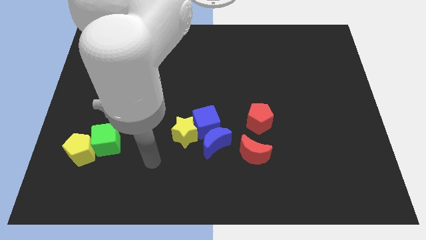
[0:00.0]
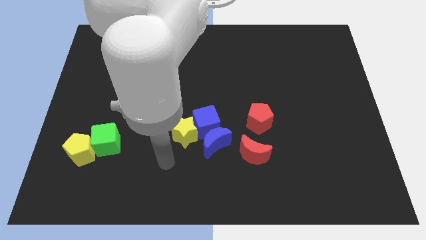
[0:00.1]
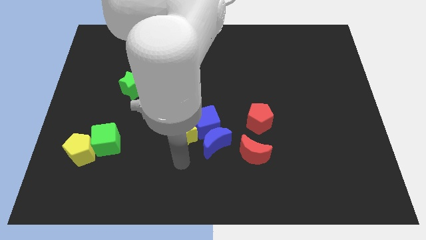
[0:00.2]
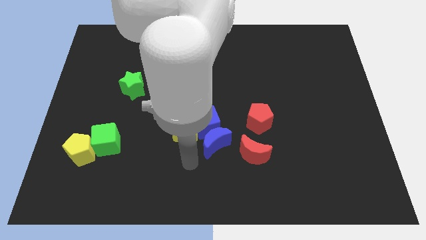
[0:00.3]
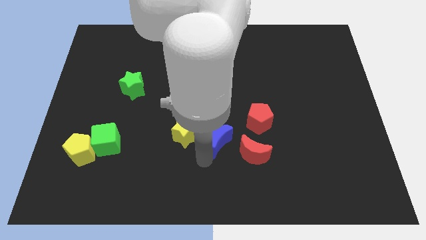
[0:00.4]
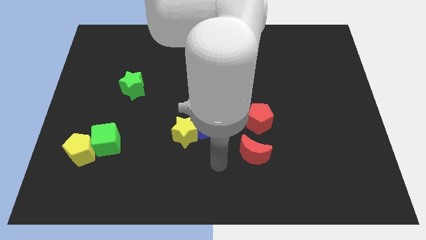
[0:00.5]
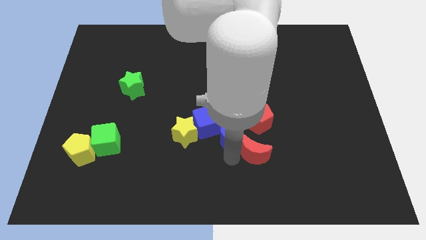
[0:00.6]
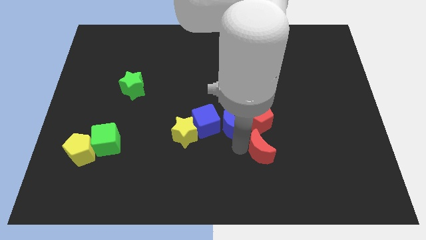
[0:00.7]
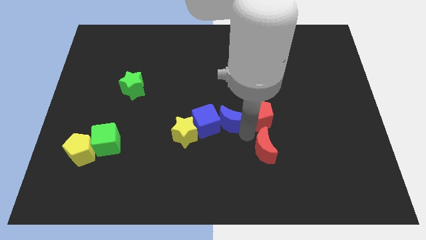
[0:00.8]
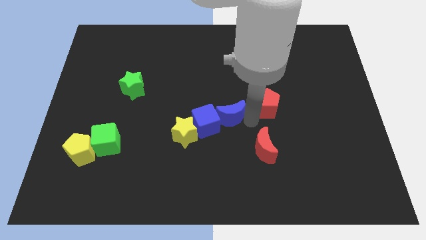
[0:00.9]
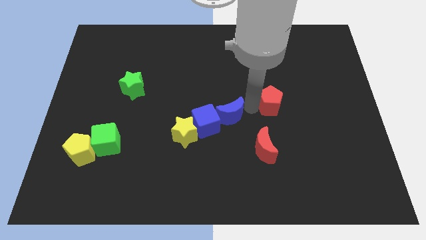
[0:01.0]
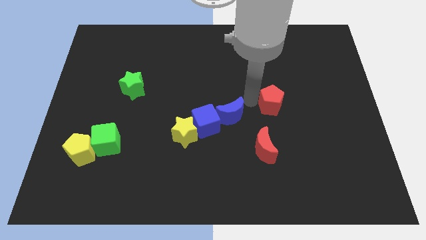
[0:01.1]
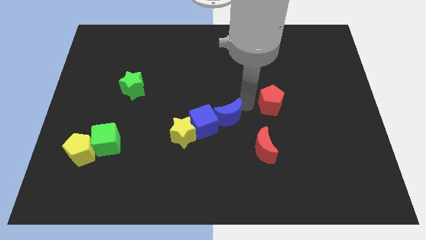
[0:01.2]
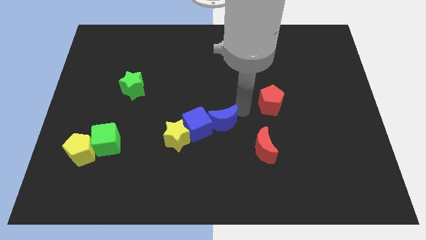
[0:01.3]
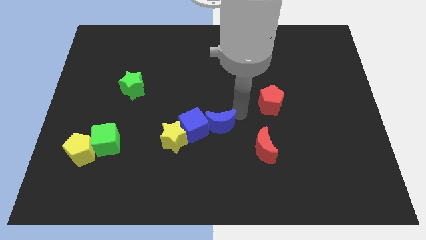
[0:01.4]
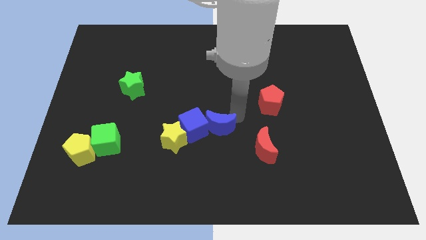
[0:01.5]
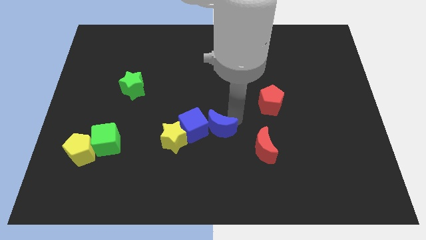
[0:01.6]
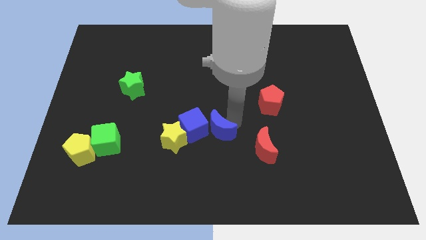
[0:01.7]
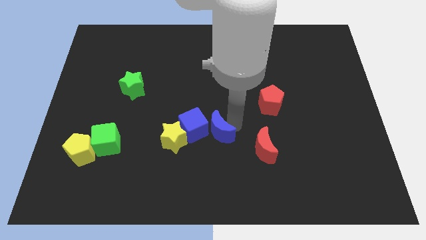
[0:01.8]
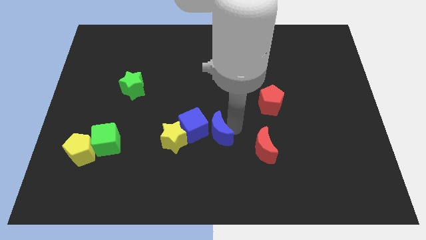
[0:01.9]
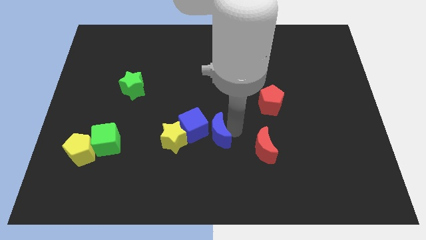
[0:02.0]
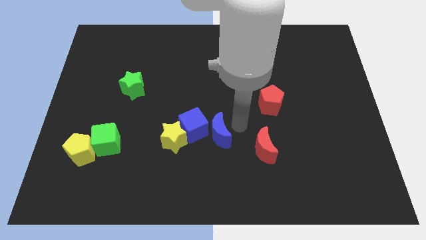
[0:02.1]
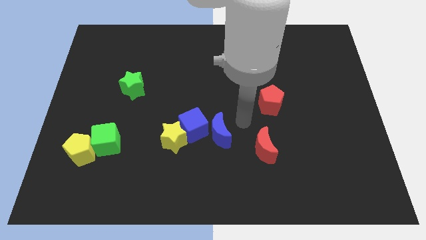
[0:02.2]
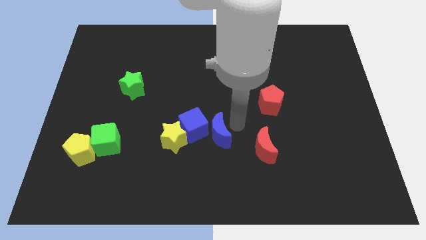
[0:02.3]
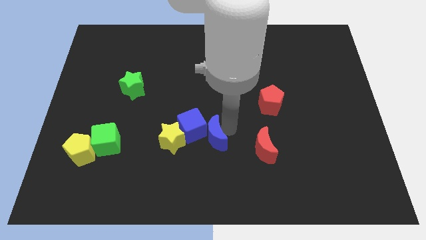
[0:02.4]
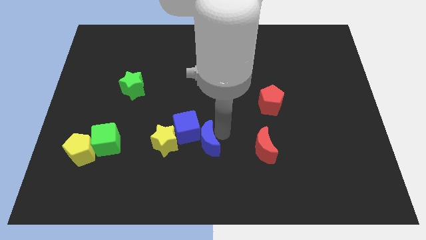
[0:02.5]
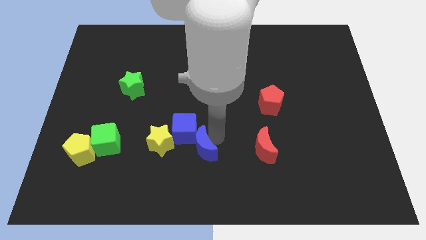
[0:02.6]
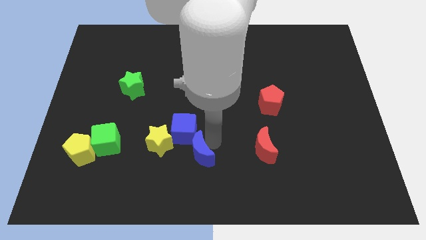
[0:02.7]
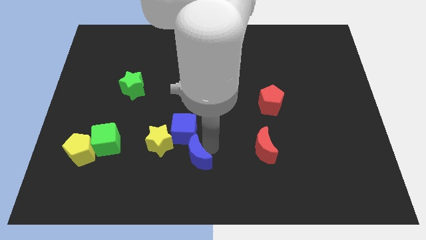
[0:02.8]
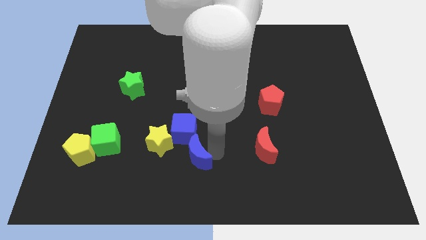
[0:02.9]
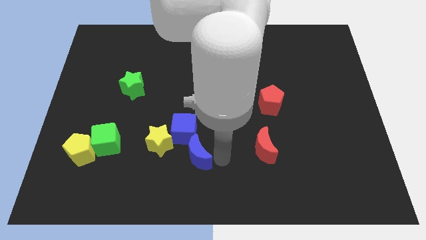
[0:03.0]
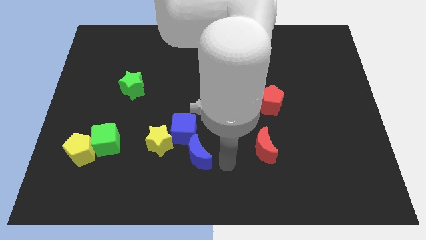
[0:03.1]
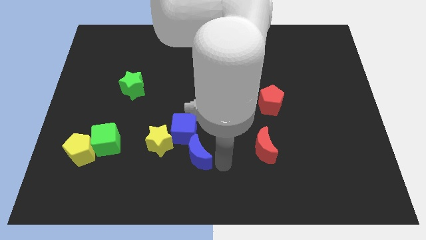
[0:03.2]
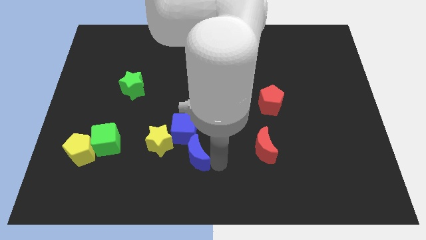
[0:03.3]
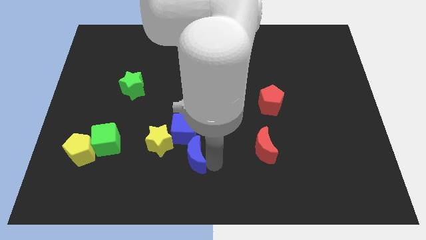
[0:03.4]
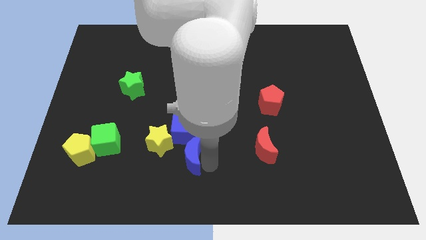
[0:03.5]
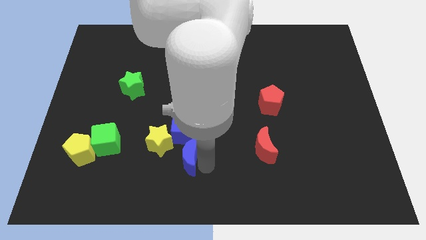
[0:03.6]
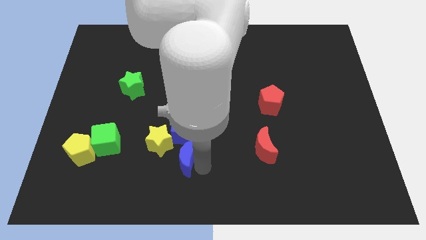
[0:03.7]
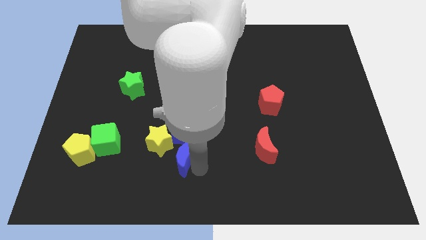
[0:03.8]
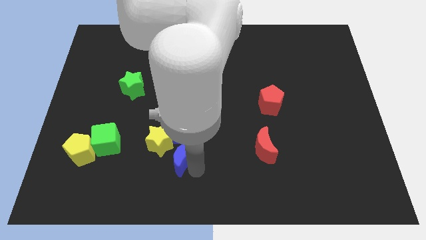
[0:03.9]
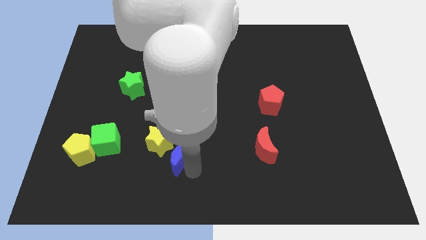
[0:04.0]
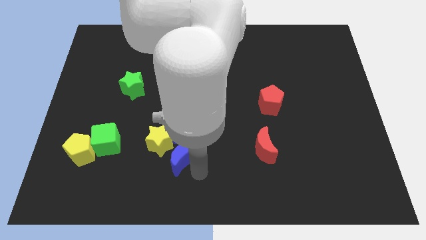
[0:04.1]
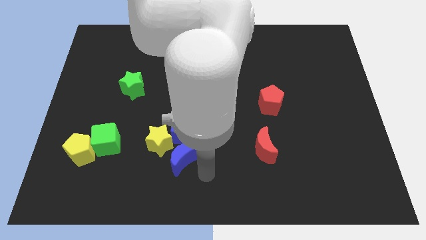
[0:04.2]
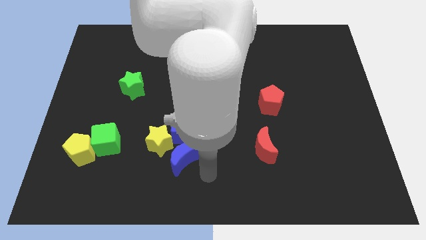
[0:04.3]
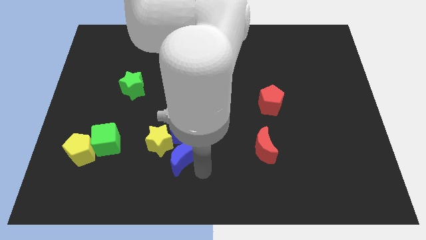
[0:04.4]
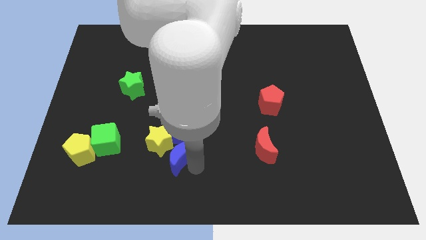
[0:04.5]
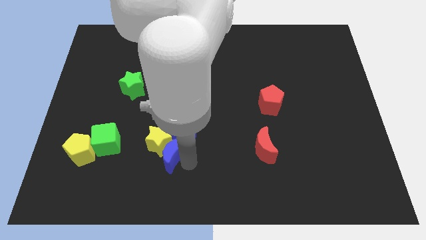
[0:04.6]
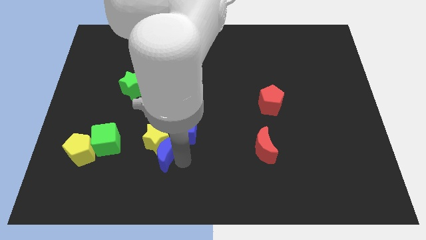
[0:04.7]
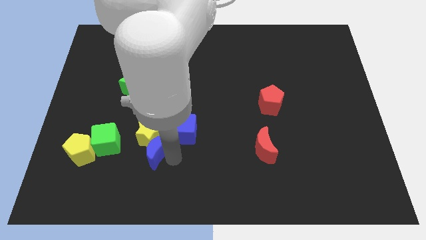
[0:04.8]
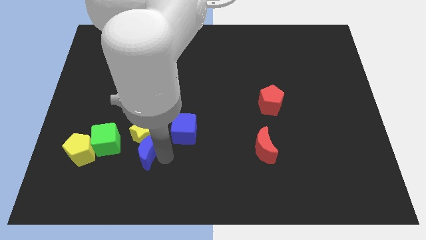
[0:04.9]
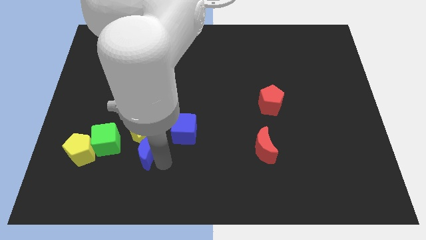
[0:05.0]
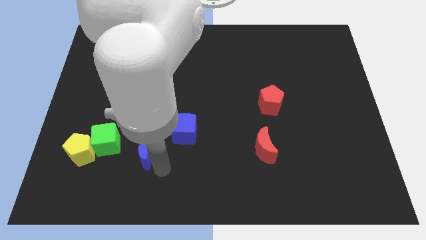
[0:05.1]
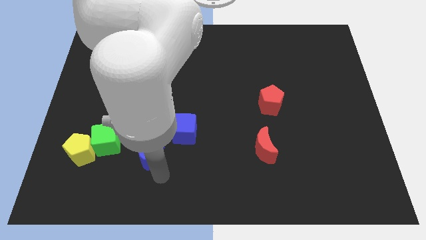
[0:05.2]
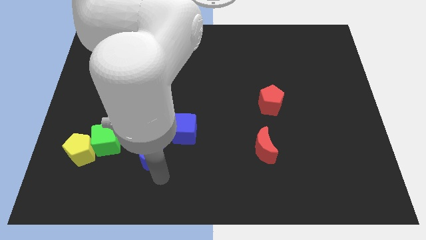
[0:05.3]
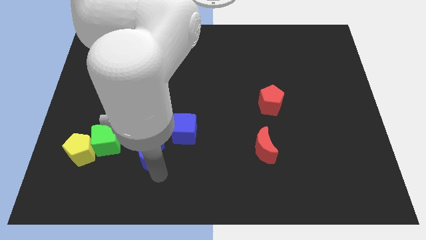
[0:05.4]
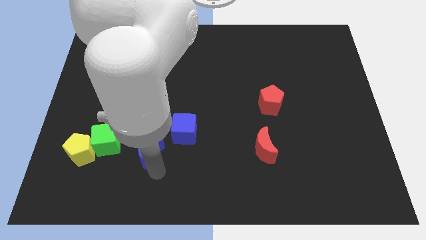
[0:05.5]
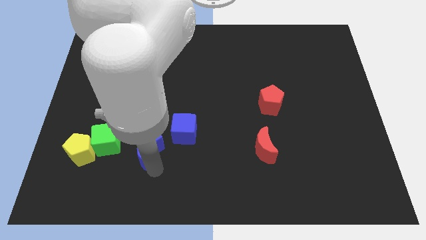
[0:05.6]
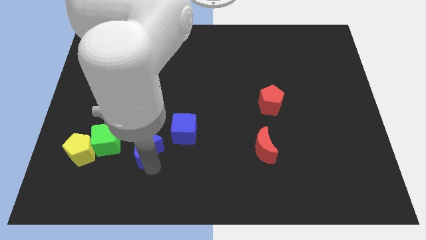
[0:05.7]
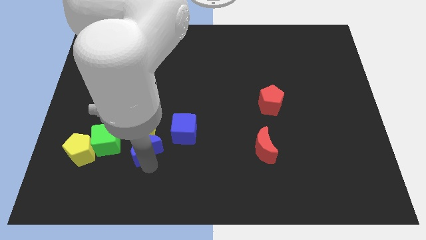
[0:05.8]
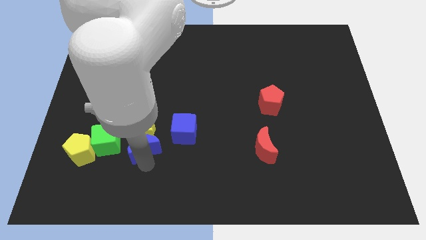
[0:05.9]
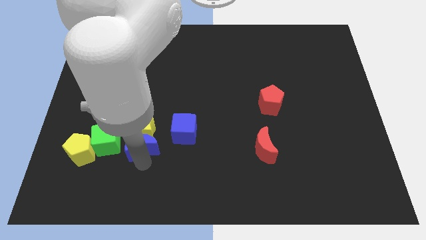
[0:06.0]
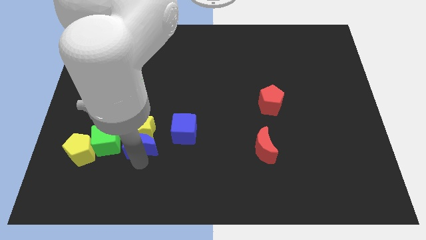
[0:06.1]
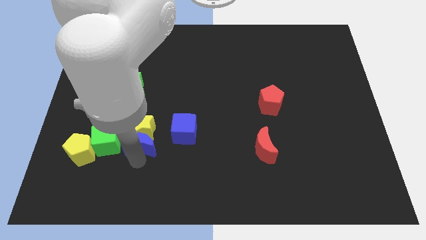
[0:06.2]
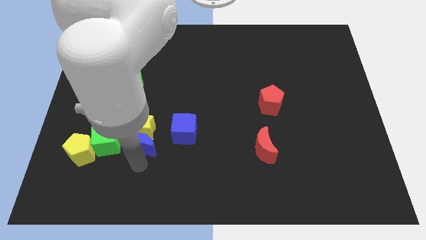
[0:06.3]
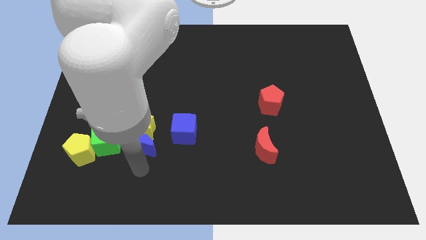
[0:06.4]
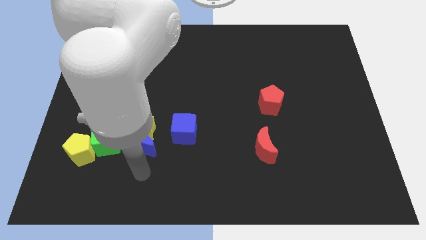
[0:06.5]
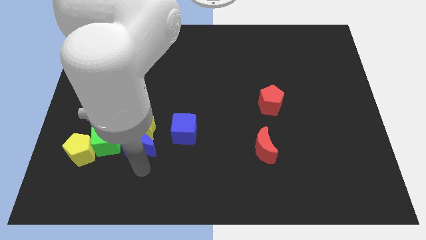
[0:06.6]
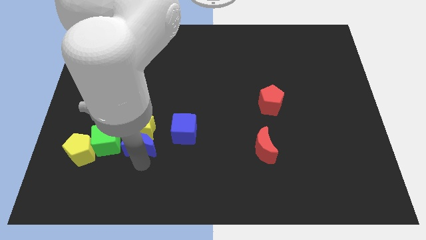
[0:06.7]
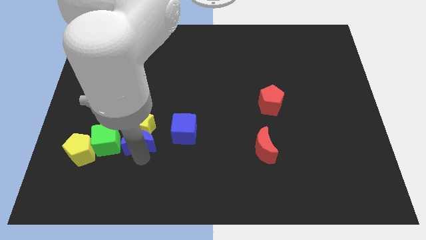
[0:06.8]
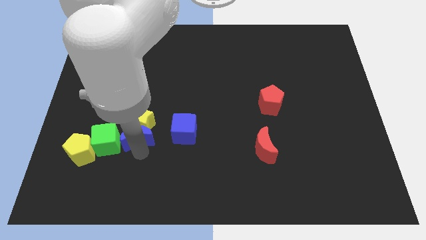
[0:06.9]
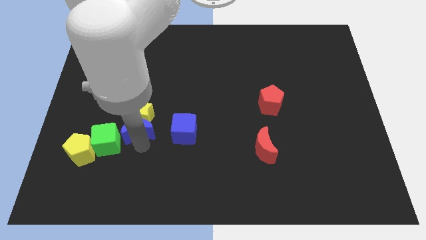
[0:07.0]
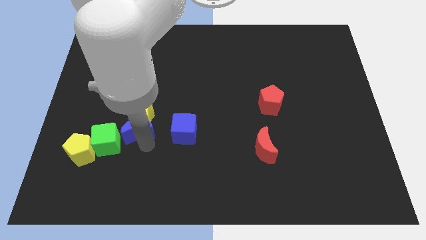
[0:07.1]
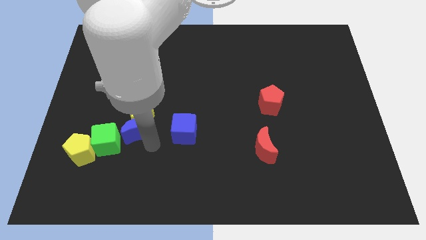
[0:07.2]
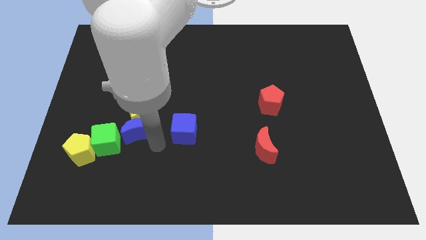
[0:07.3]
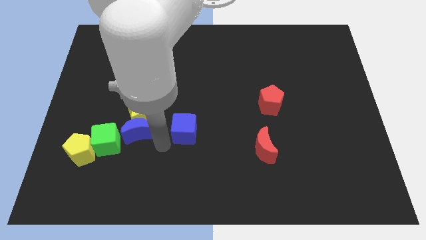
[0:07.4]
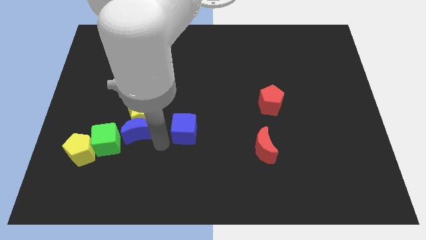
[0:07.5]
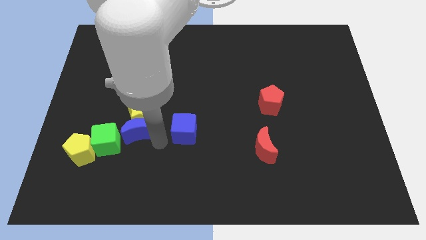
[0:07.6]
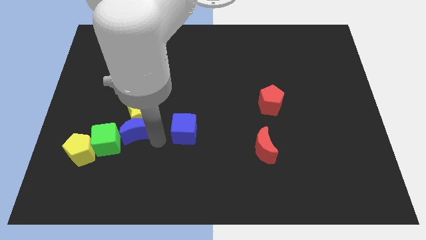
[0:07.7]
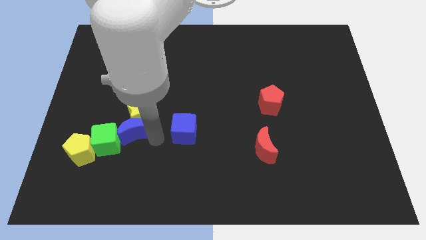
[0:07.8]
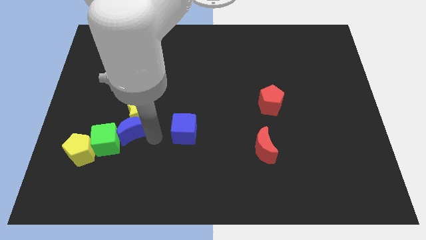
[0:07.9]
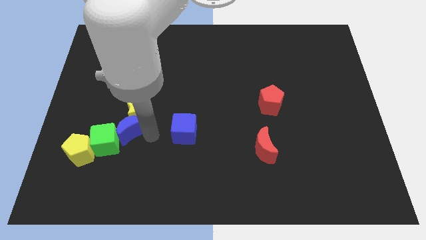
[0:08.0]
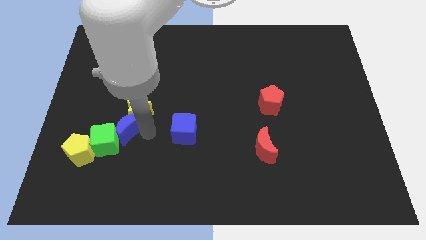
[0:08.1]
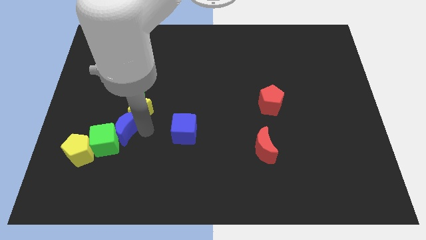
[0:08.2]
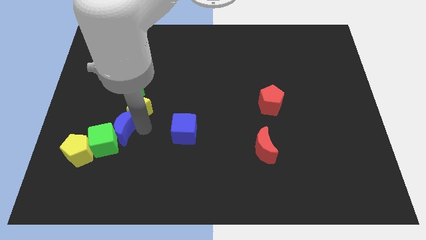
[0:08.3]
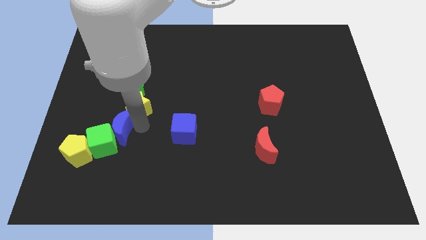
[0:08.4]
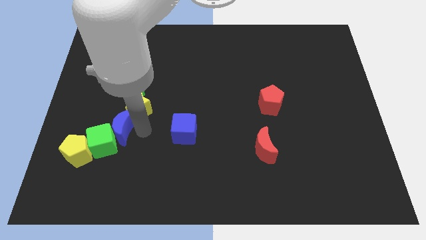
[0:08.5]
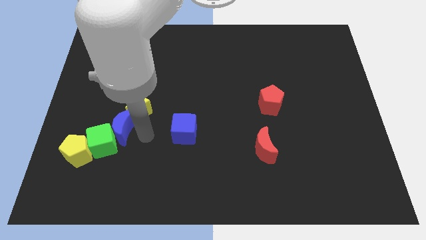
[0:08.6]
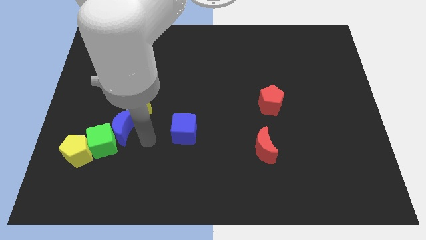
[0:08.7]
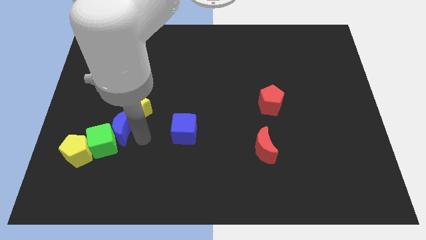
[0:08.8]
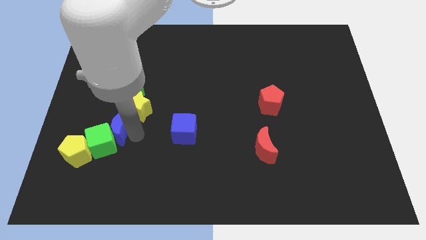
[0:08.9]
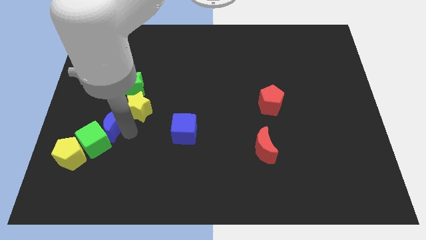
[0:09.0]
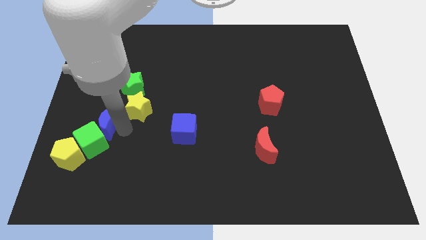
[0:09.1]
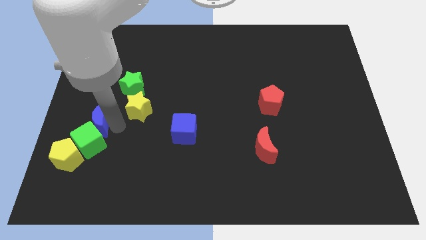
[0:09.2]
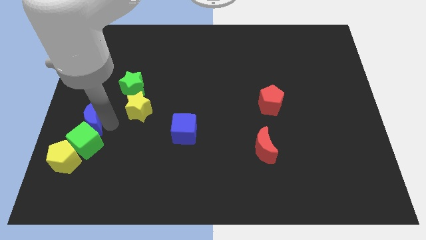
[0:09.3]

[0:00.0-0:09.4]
move the blue moon to the left side
